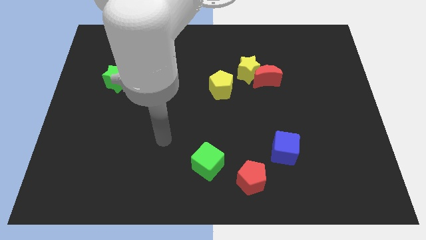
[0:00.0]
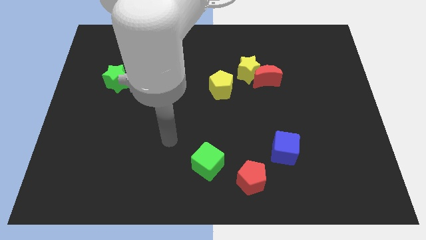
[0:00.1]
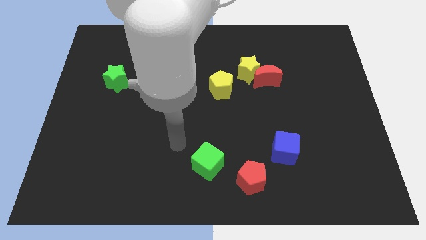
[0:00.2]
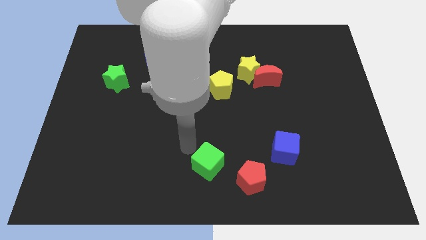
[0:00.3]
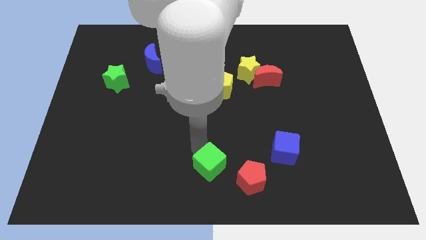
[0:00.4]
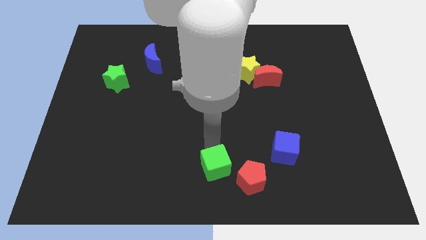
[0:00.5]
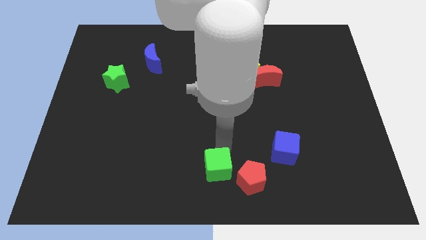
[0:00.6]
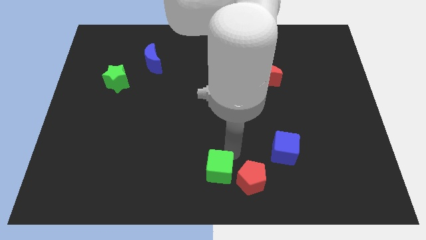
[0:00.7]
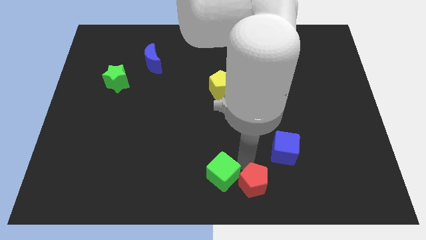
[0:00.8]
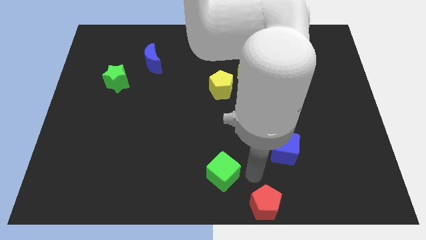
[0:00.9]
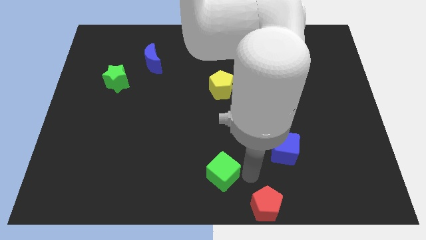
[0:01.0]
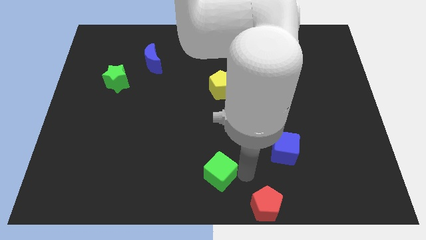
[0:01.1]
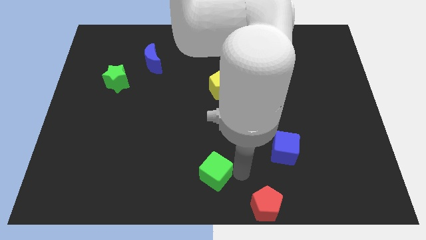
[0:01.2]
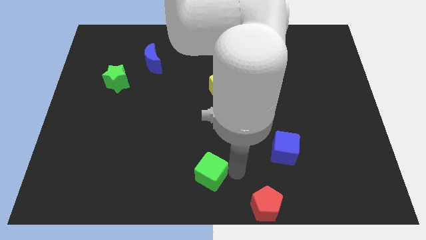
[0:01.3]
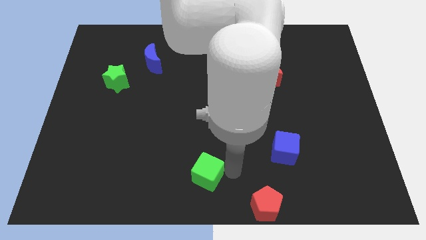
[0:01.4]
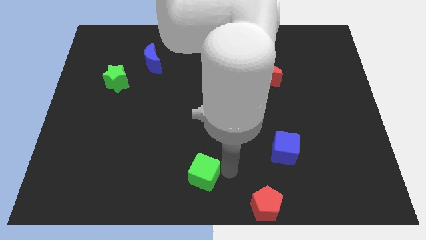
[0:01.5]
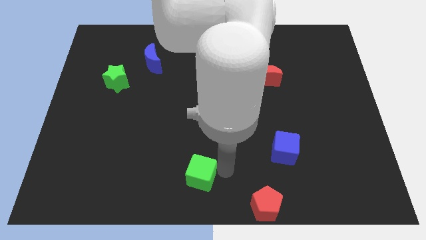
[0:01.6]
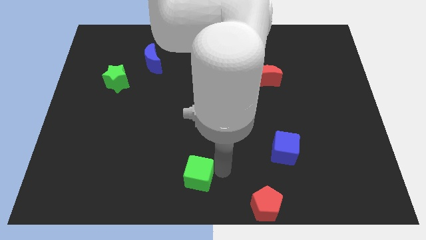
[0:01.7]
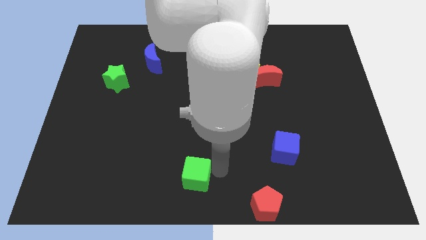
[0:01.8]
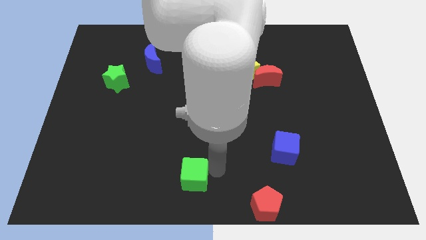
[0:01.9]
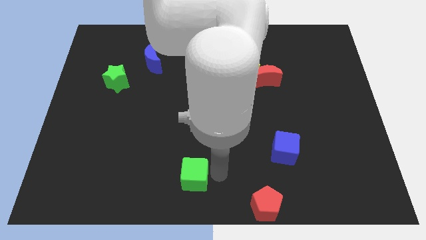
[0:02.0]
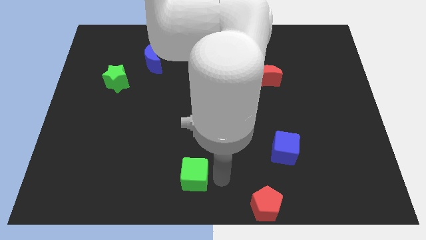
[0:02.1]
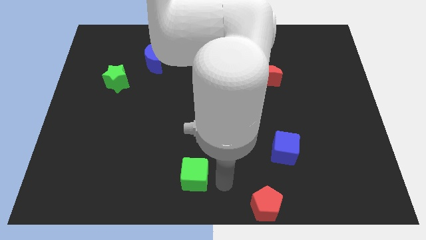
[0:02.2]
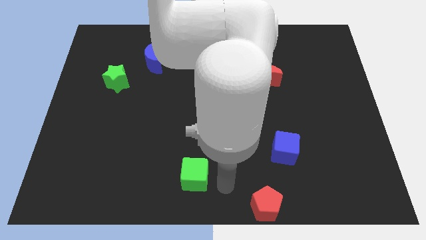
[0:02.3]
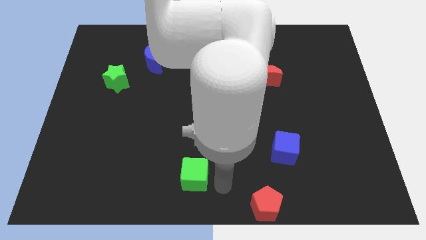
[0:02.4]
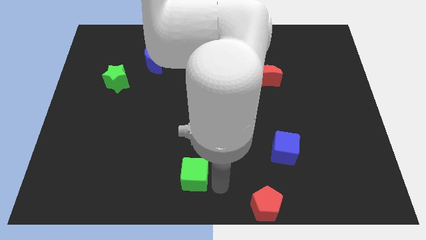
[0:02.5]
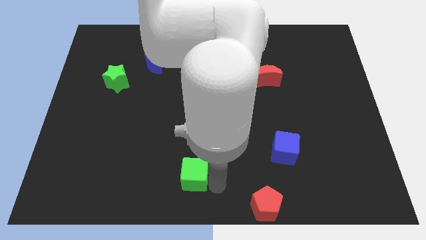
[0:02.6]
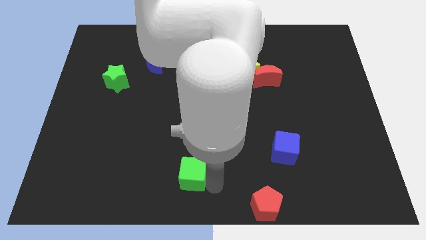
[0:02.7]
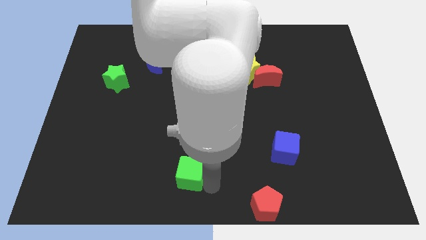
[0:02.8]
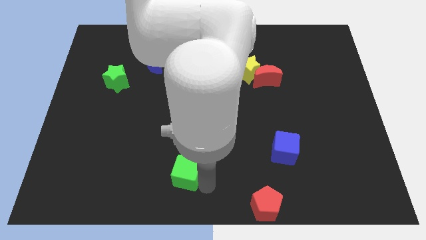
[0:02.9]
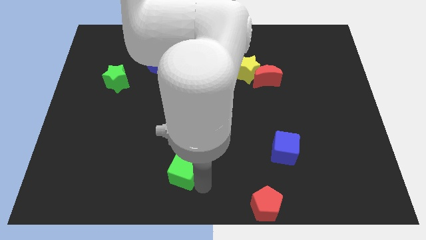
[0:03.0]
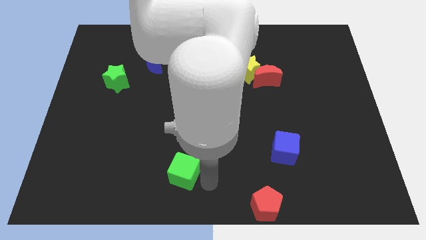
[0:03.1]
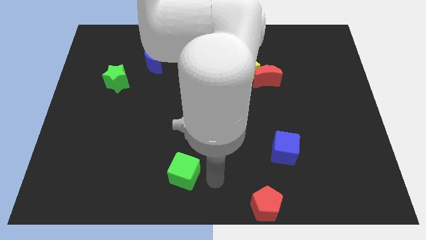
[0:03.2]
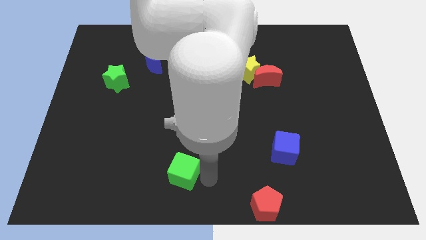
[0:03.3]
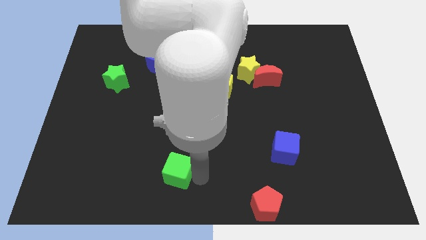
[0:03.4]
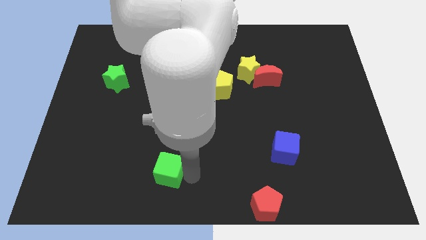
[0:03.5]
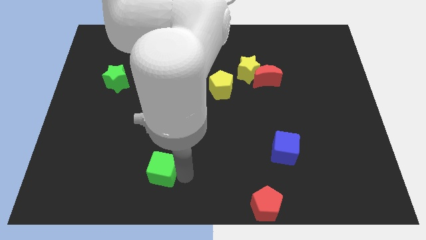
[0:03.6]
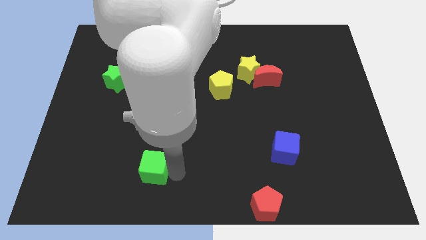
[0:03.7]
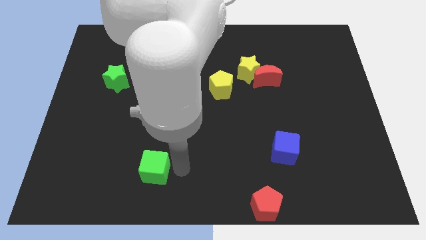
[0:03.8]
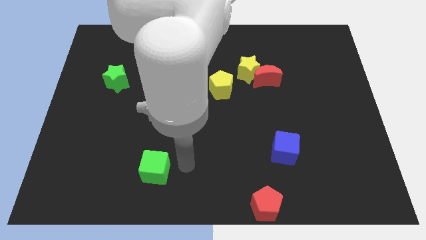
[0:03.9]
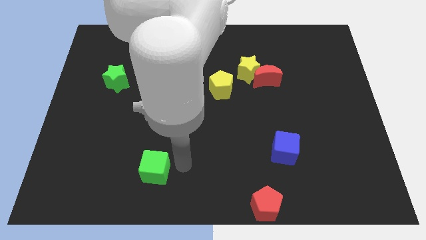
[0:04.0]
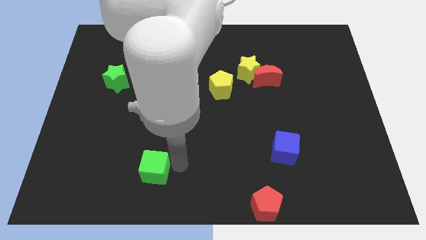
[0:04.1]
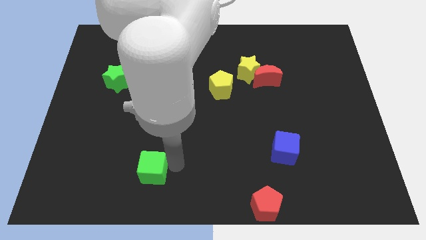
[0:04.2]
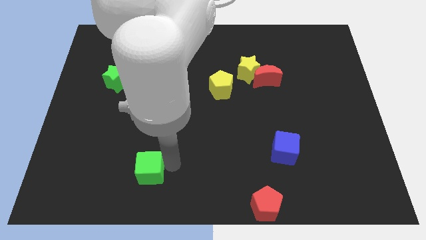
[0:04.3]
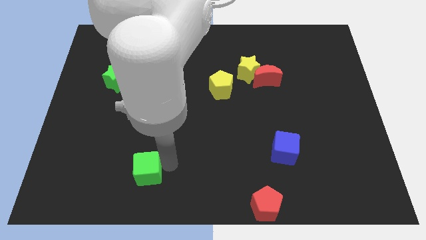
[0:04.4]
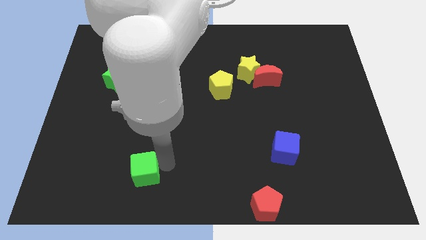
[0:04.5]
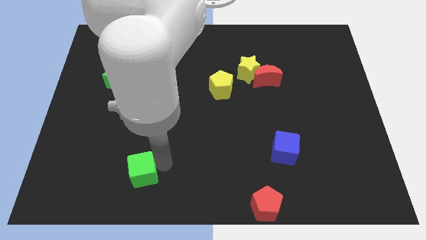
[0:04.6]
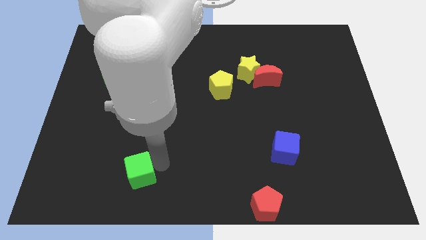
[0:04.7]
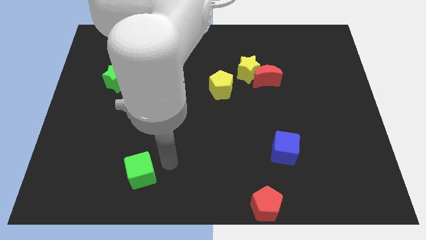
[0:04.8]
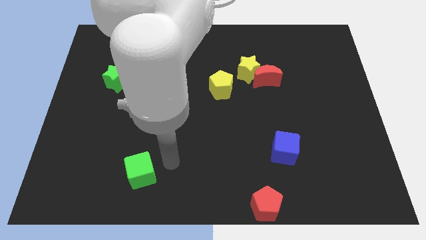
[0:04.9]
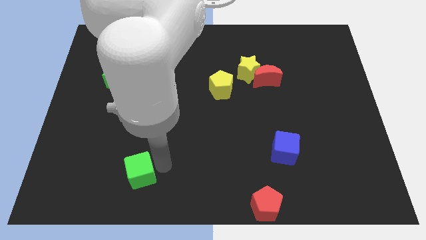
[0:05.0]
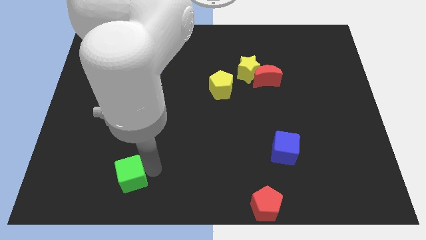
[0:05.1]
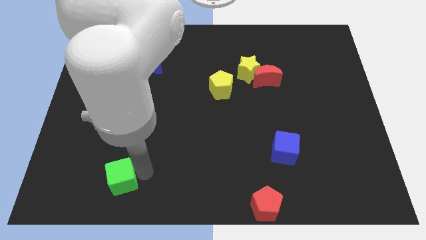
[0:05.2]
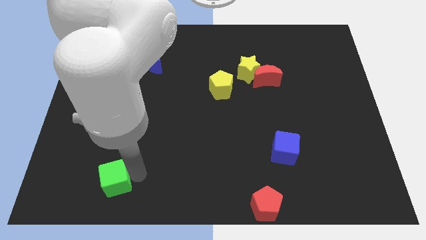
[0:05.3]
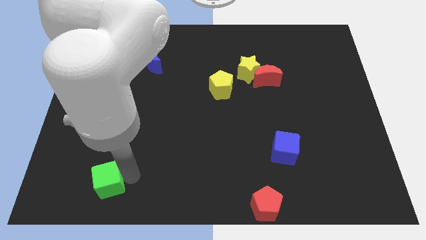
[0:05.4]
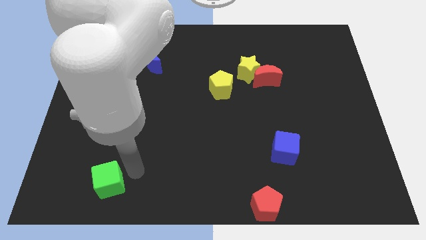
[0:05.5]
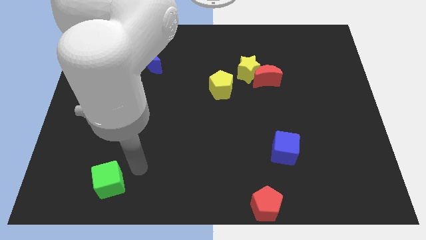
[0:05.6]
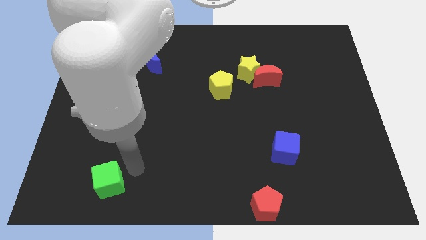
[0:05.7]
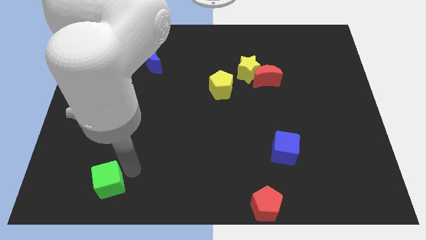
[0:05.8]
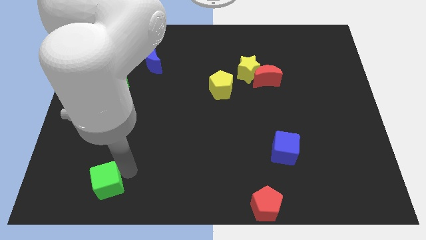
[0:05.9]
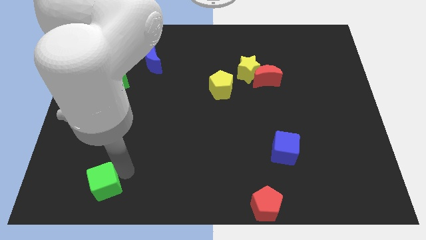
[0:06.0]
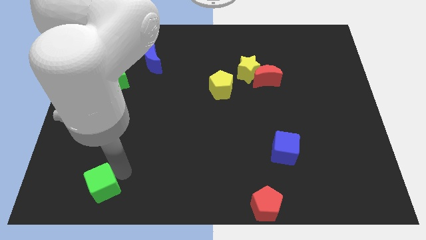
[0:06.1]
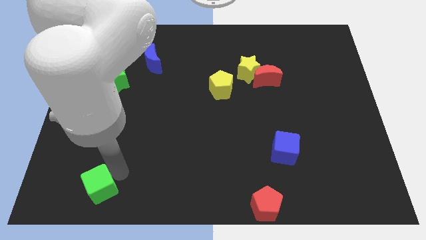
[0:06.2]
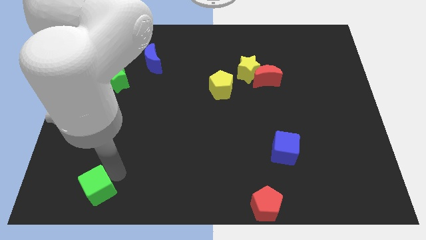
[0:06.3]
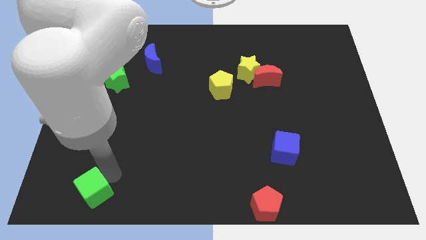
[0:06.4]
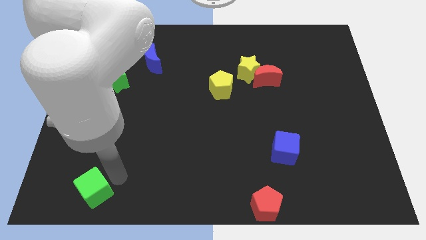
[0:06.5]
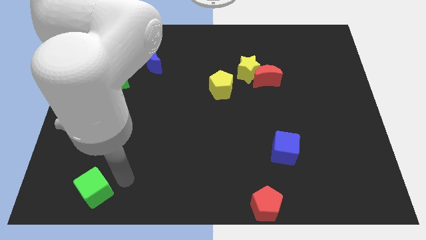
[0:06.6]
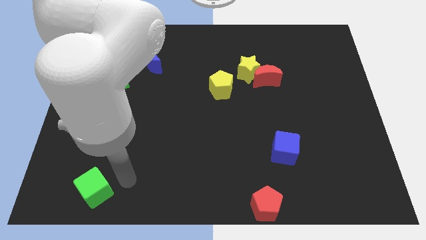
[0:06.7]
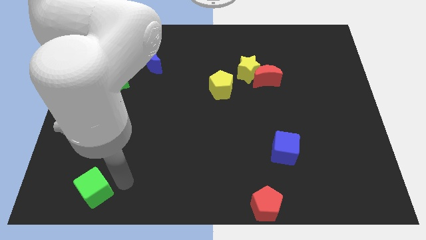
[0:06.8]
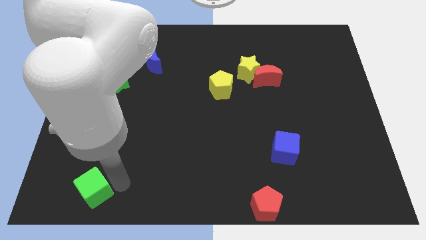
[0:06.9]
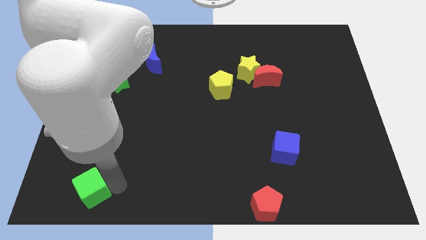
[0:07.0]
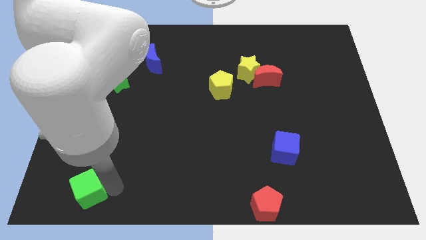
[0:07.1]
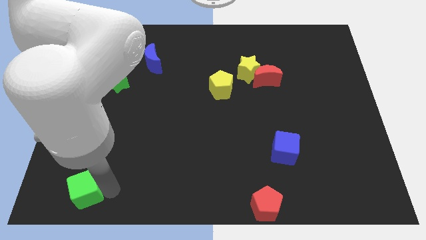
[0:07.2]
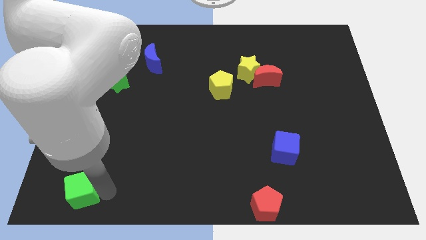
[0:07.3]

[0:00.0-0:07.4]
slide the green cube to the bottom left

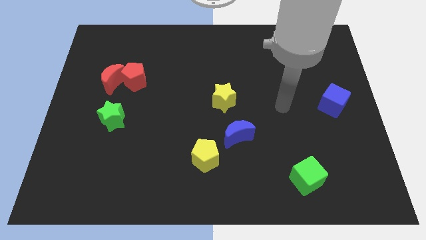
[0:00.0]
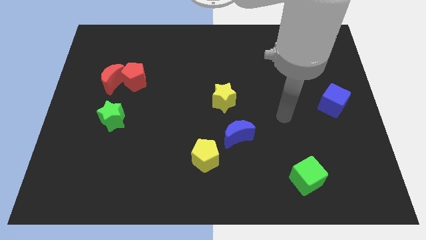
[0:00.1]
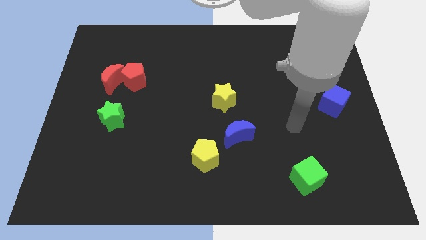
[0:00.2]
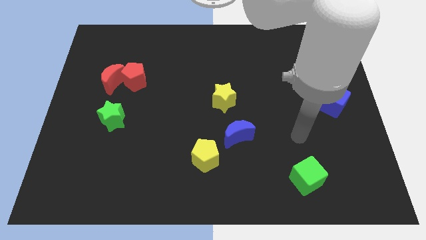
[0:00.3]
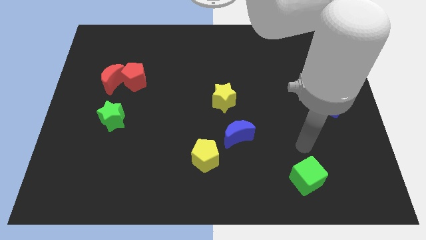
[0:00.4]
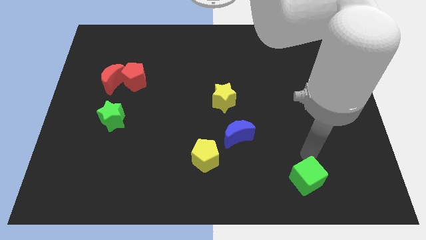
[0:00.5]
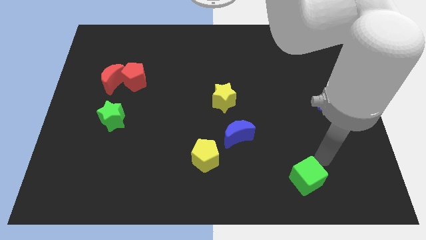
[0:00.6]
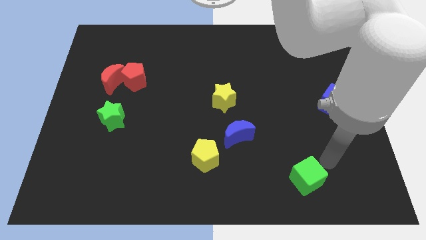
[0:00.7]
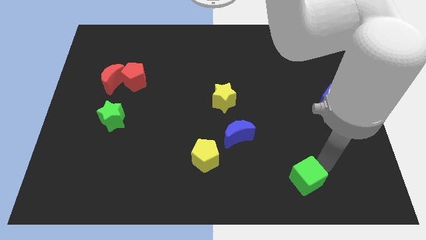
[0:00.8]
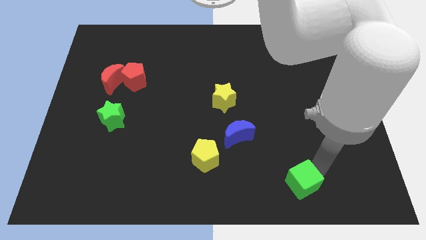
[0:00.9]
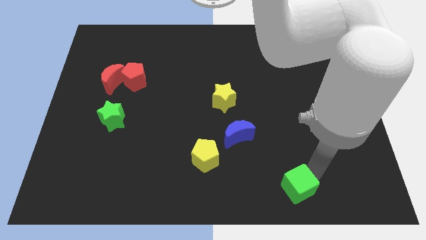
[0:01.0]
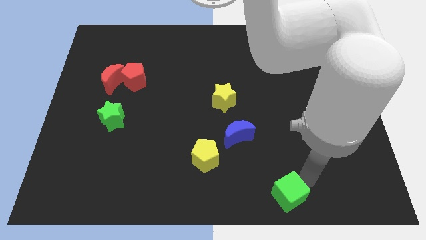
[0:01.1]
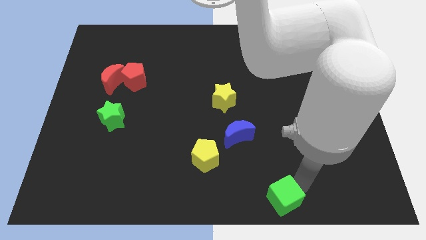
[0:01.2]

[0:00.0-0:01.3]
slide the green cube to the bottom
